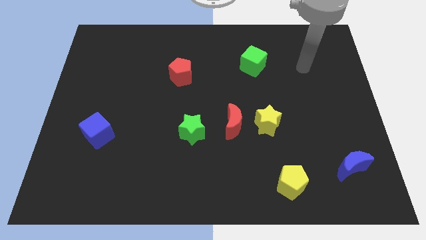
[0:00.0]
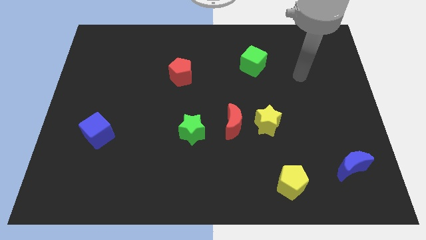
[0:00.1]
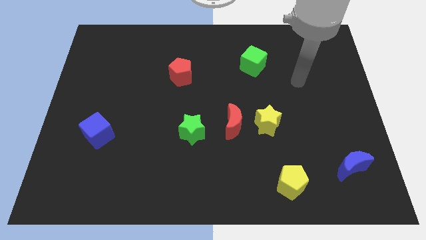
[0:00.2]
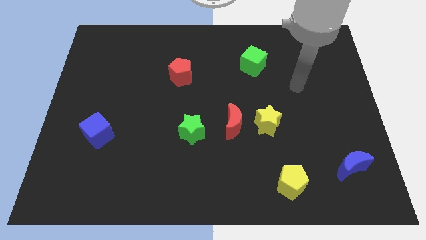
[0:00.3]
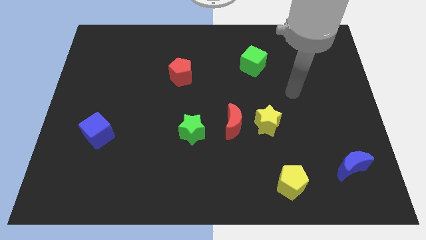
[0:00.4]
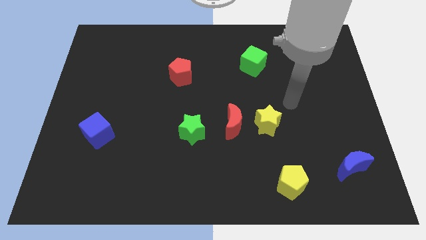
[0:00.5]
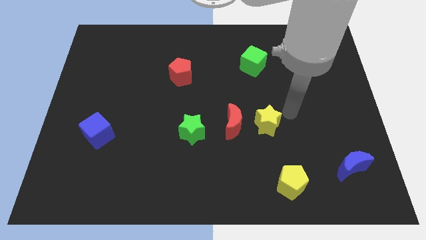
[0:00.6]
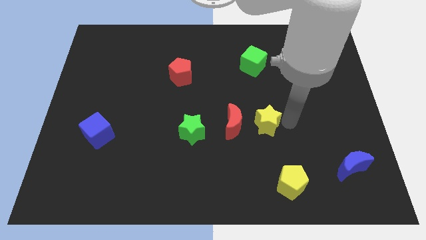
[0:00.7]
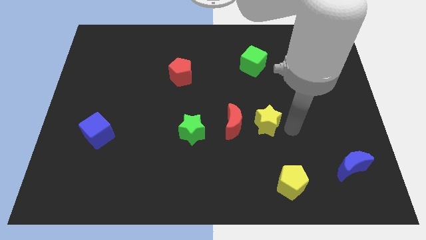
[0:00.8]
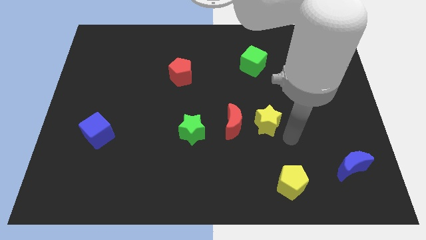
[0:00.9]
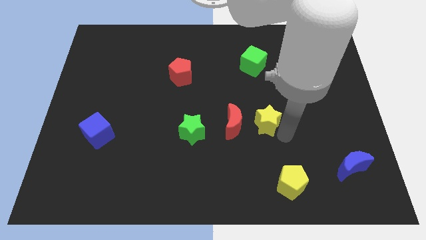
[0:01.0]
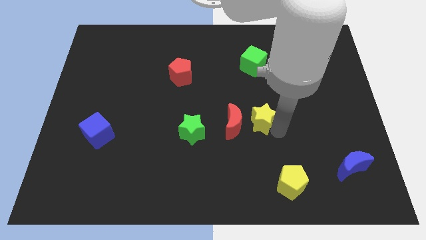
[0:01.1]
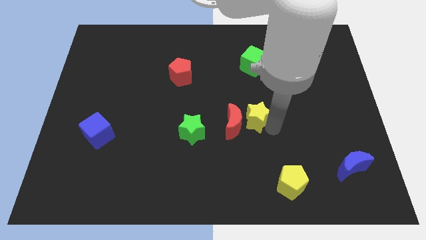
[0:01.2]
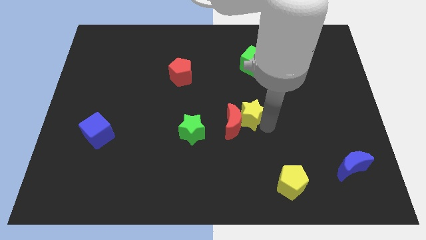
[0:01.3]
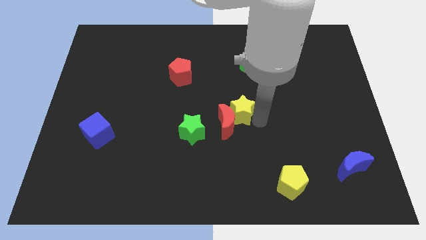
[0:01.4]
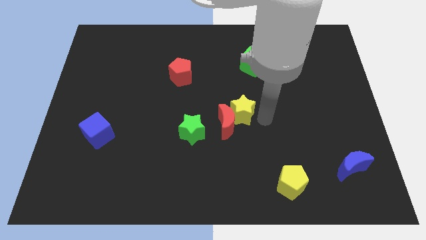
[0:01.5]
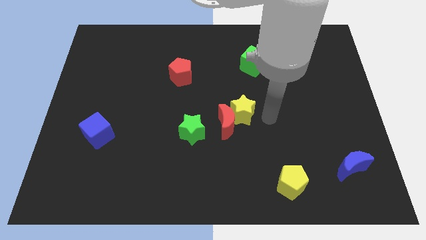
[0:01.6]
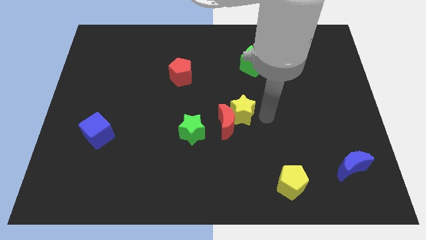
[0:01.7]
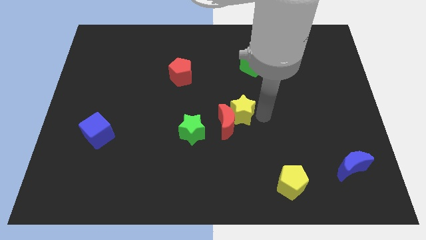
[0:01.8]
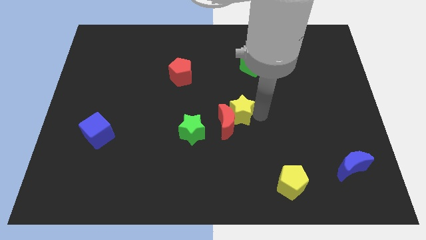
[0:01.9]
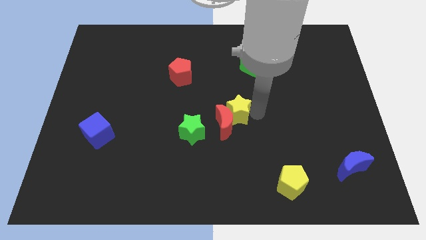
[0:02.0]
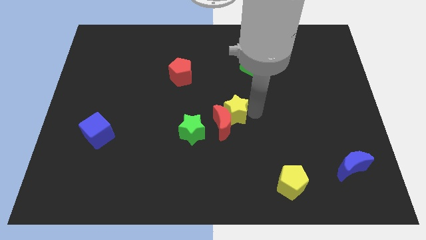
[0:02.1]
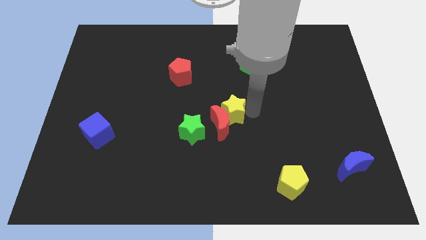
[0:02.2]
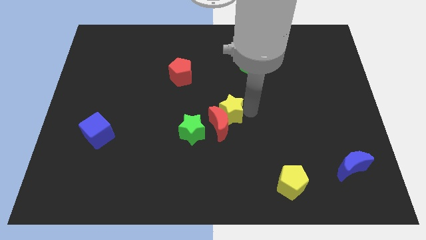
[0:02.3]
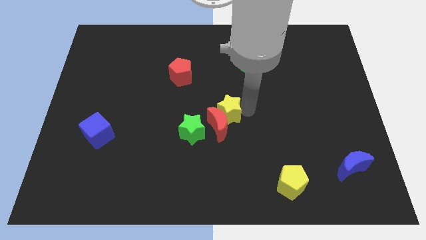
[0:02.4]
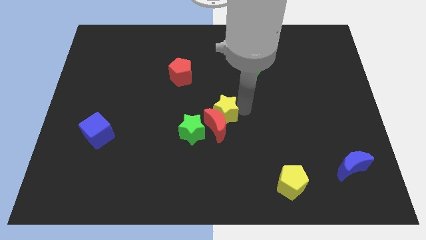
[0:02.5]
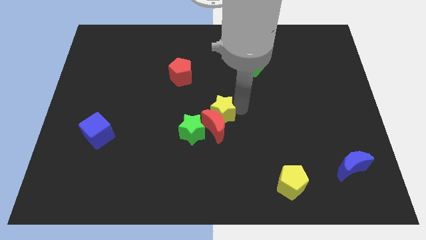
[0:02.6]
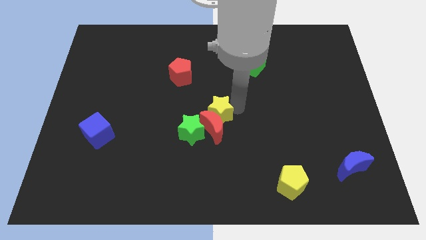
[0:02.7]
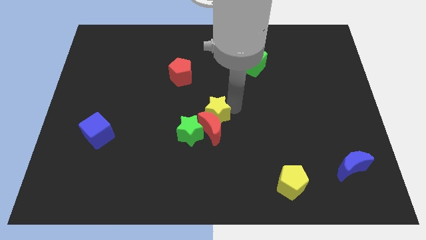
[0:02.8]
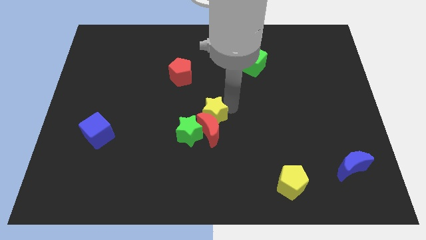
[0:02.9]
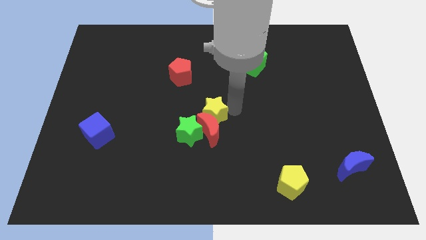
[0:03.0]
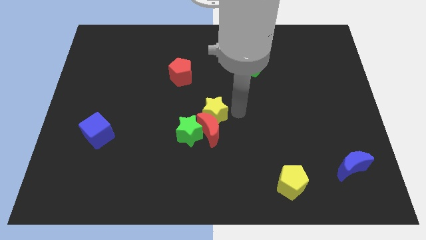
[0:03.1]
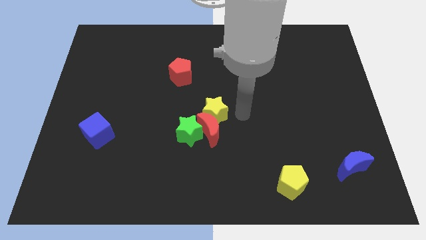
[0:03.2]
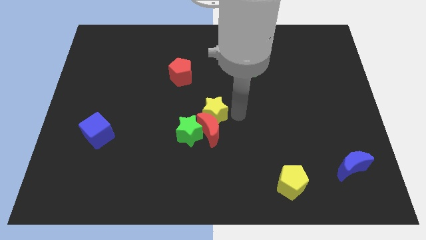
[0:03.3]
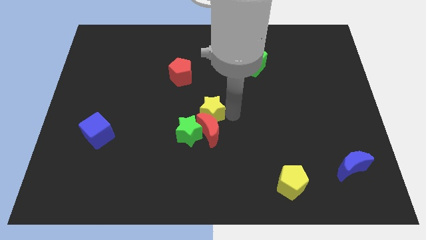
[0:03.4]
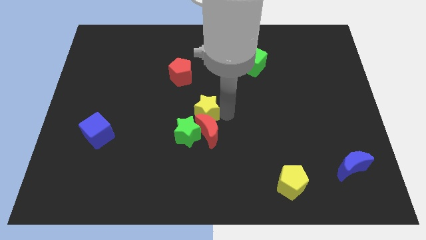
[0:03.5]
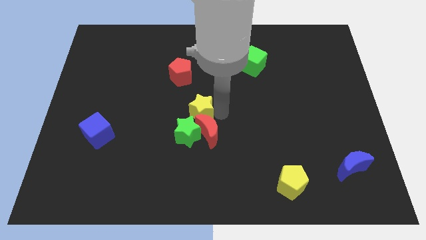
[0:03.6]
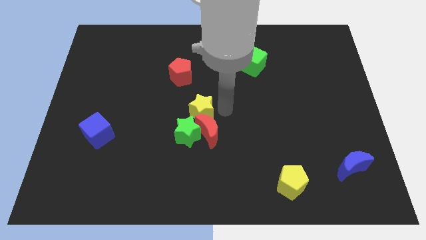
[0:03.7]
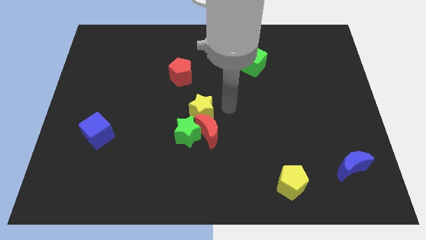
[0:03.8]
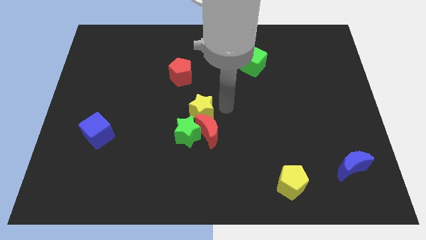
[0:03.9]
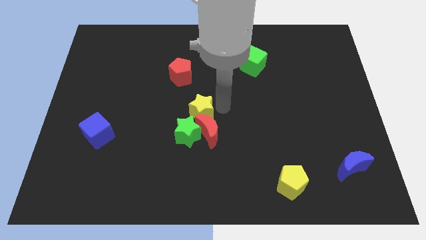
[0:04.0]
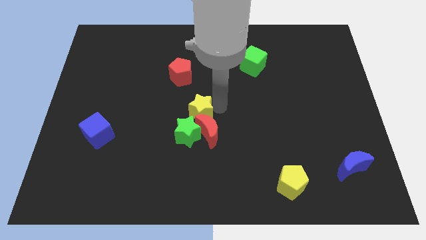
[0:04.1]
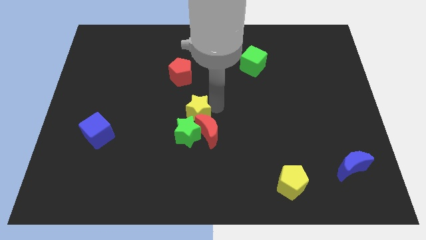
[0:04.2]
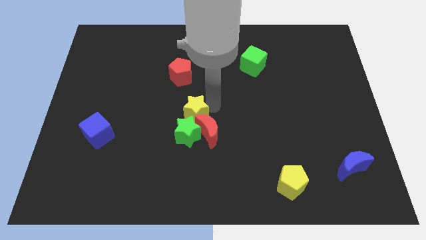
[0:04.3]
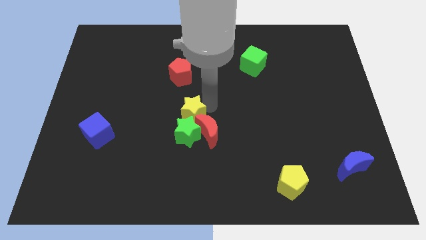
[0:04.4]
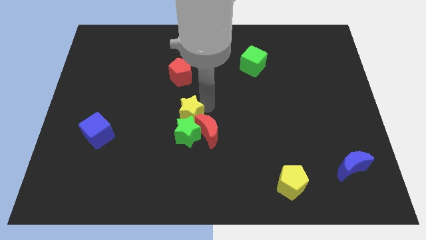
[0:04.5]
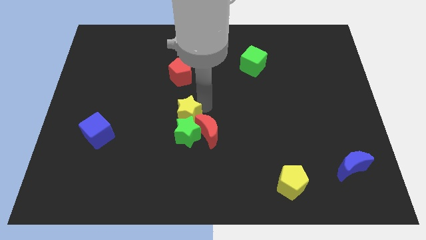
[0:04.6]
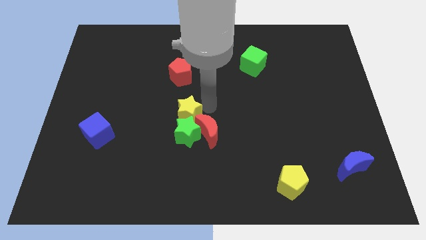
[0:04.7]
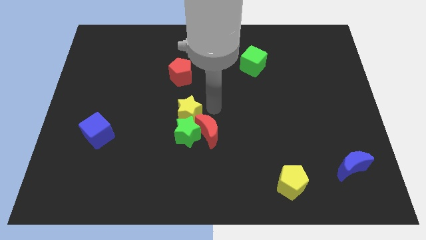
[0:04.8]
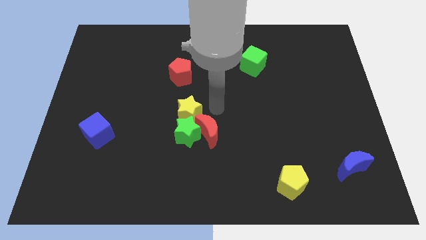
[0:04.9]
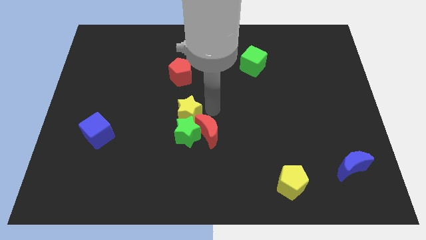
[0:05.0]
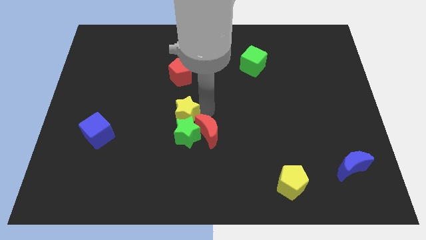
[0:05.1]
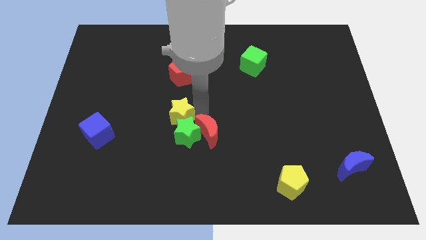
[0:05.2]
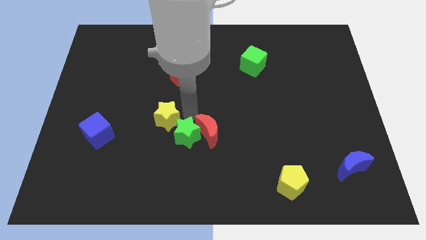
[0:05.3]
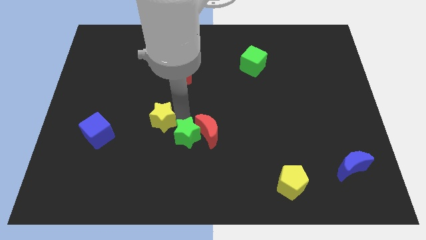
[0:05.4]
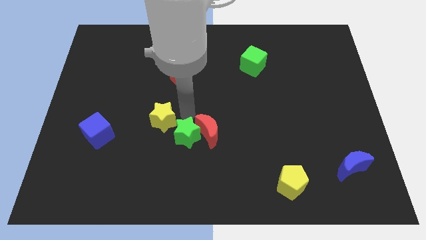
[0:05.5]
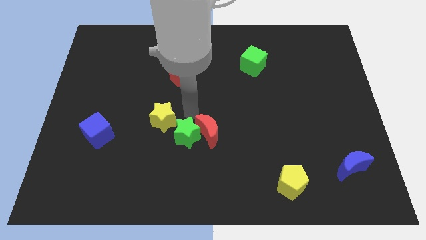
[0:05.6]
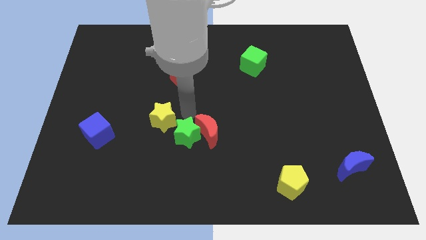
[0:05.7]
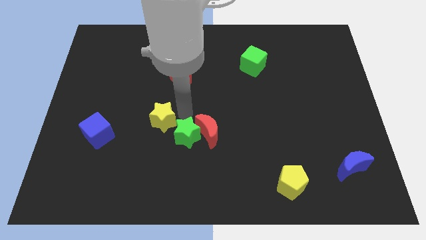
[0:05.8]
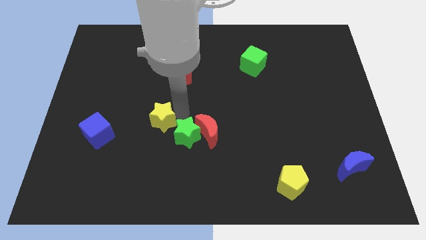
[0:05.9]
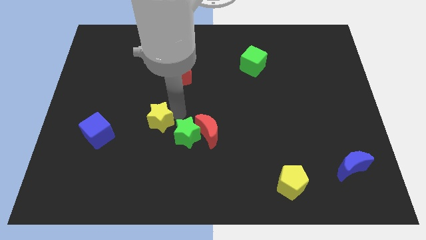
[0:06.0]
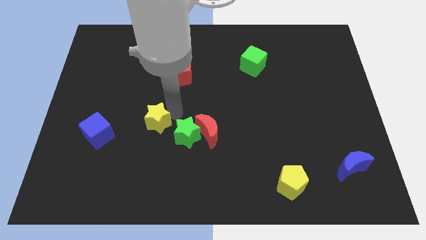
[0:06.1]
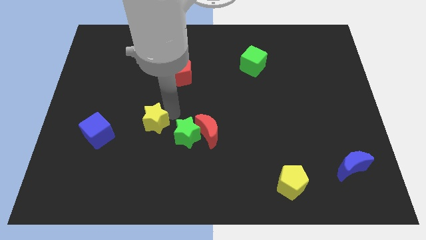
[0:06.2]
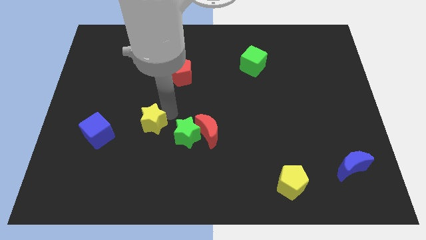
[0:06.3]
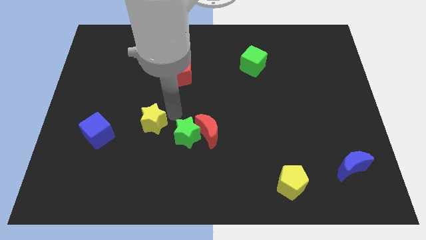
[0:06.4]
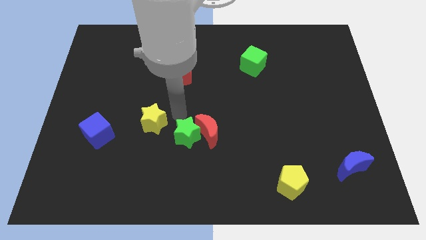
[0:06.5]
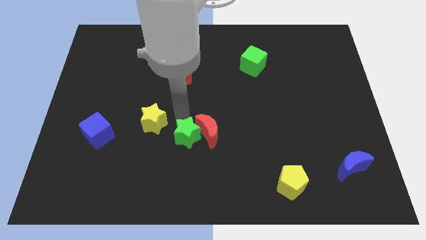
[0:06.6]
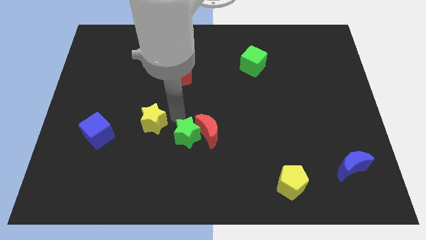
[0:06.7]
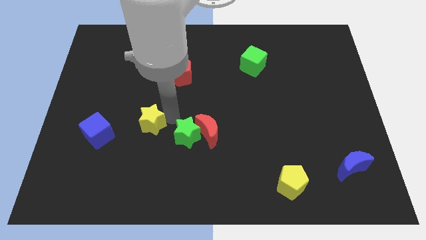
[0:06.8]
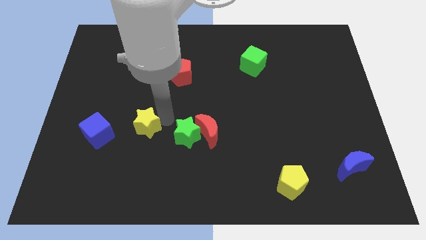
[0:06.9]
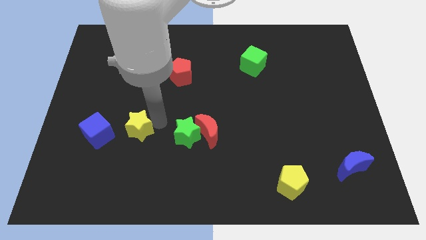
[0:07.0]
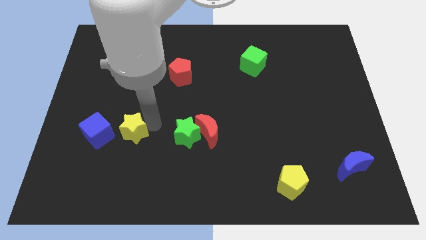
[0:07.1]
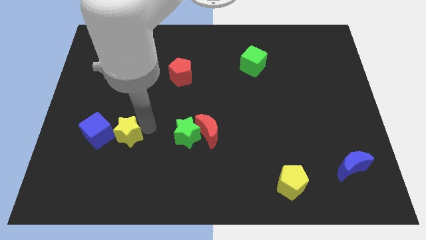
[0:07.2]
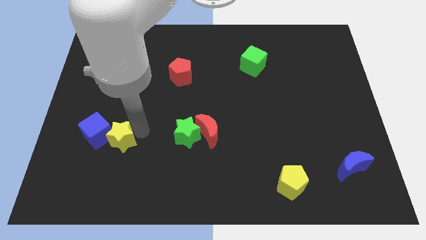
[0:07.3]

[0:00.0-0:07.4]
slide the yellow star next to the blue cube
